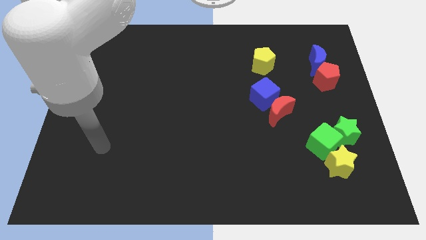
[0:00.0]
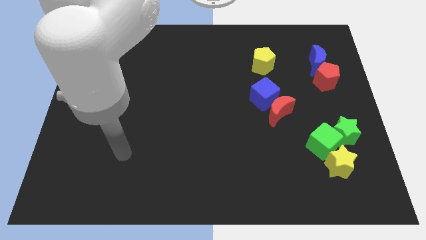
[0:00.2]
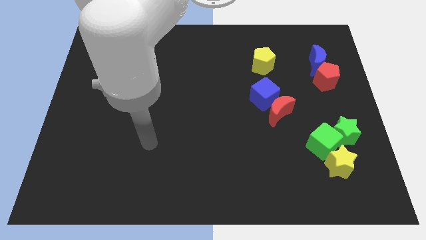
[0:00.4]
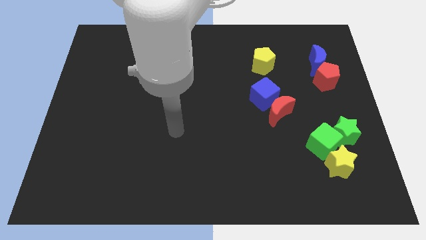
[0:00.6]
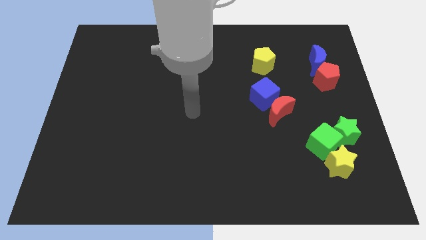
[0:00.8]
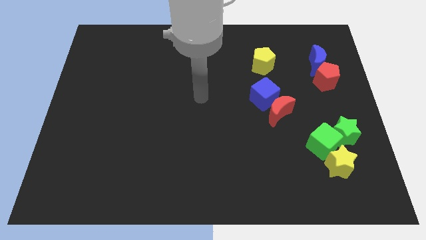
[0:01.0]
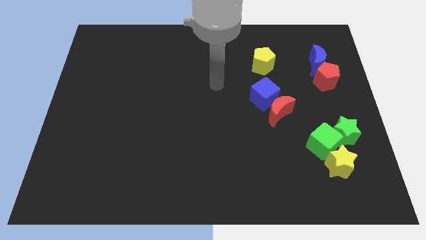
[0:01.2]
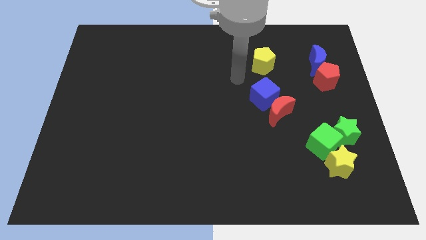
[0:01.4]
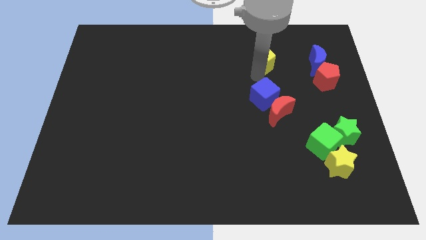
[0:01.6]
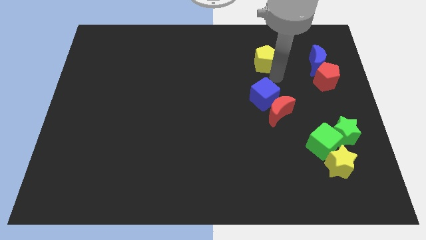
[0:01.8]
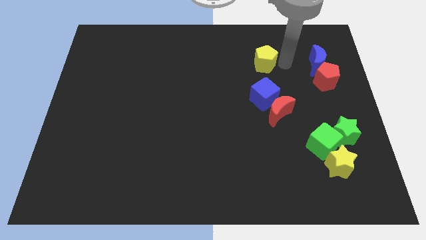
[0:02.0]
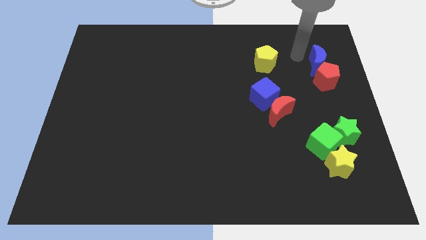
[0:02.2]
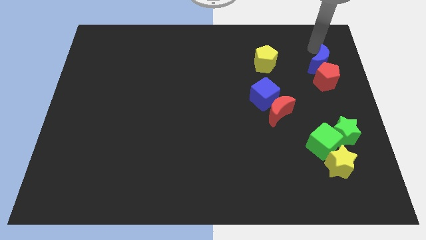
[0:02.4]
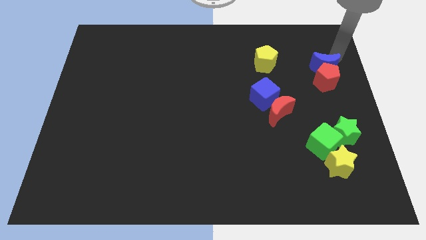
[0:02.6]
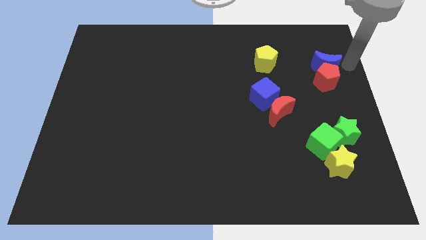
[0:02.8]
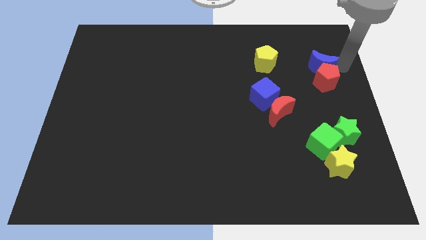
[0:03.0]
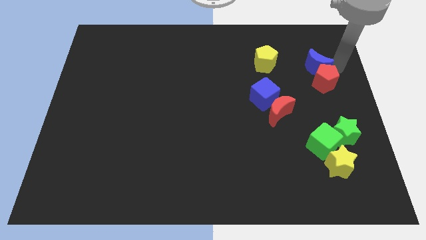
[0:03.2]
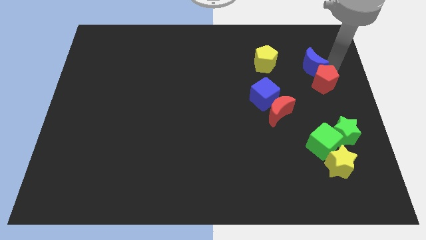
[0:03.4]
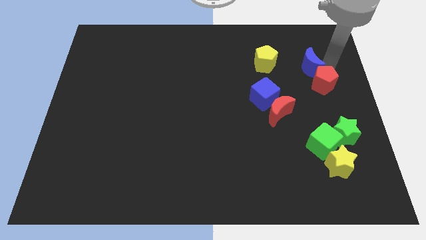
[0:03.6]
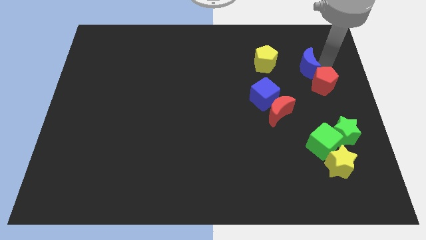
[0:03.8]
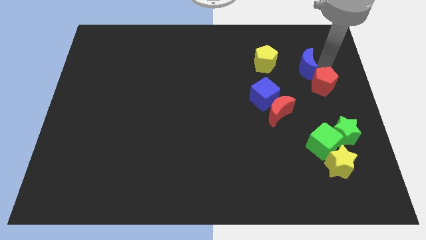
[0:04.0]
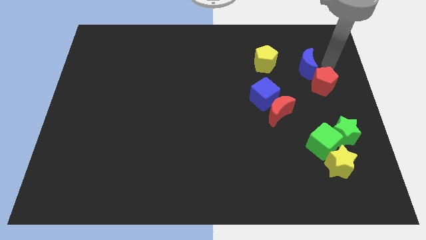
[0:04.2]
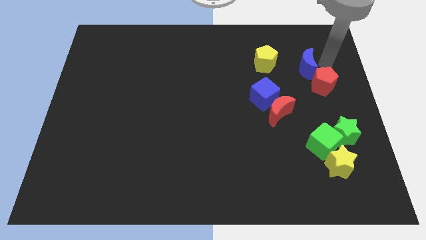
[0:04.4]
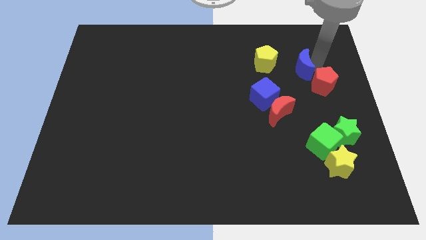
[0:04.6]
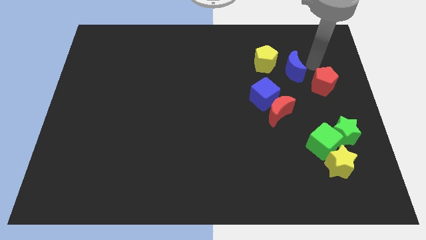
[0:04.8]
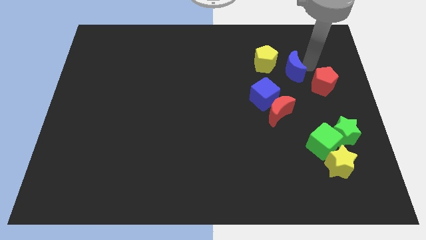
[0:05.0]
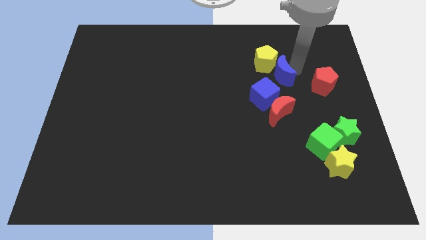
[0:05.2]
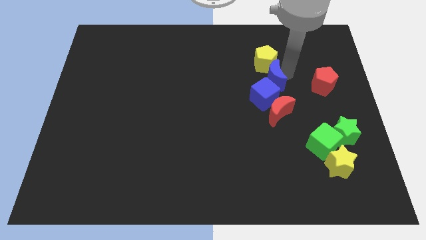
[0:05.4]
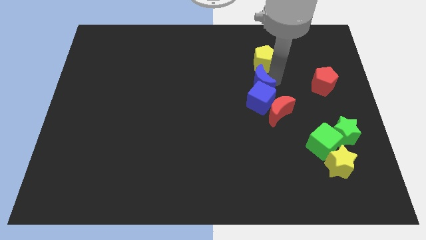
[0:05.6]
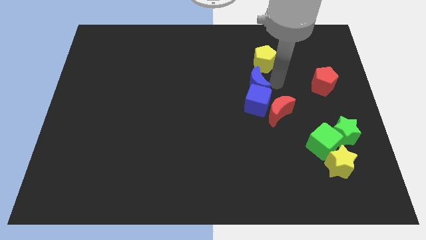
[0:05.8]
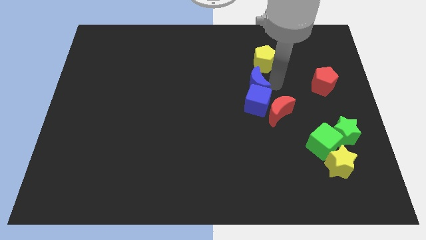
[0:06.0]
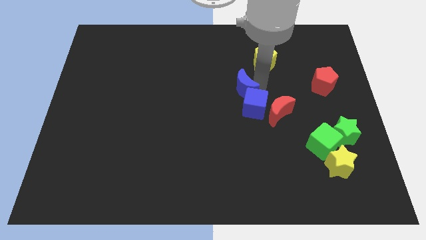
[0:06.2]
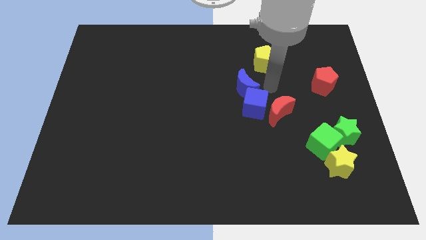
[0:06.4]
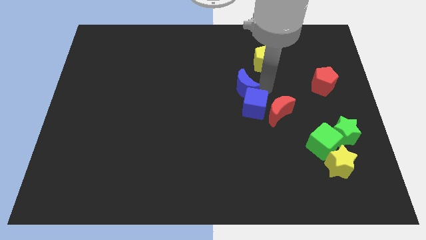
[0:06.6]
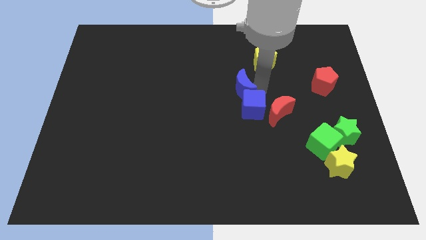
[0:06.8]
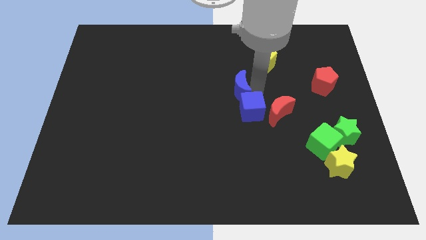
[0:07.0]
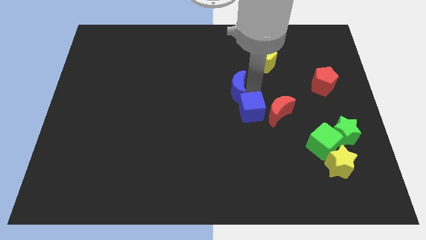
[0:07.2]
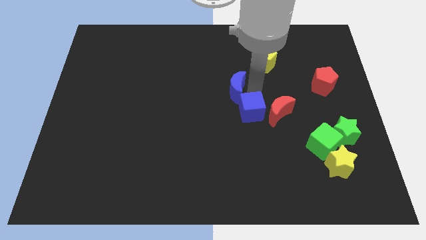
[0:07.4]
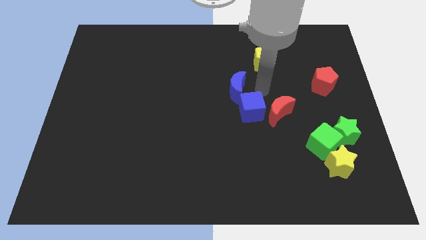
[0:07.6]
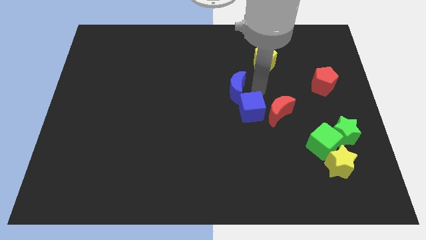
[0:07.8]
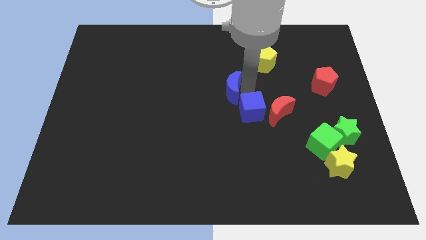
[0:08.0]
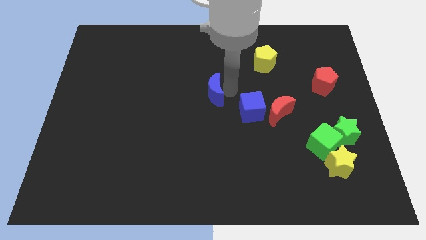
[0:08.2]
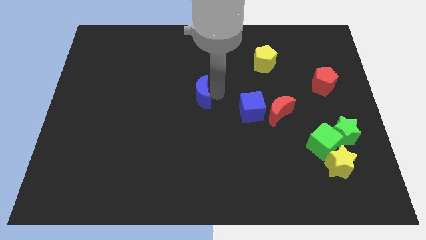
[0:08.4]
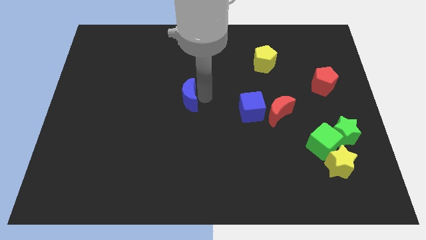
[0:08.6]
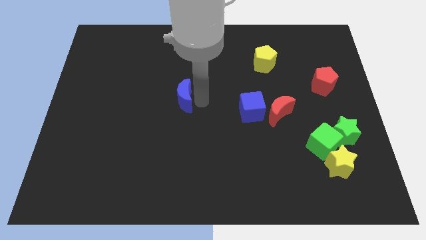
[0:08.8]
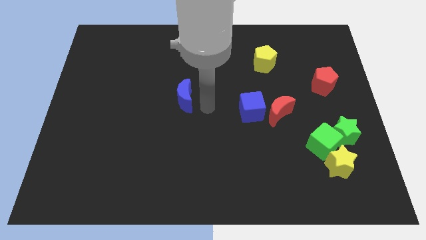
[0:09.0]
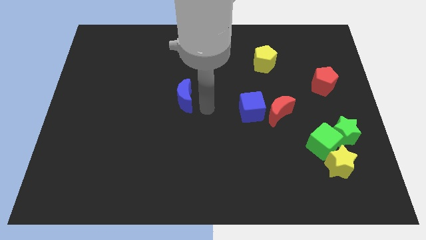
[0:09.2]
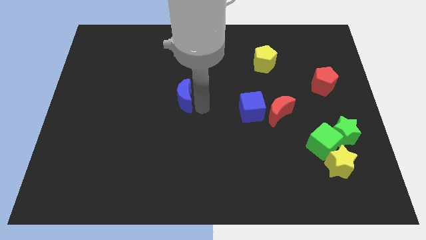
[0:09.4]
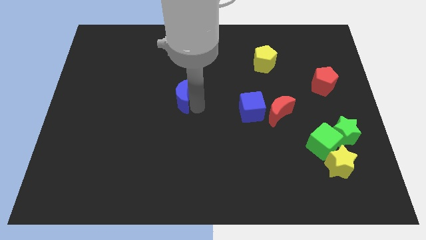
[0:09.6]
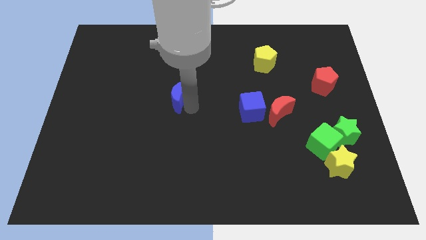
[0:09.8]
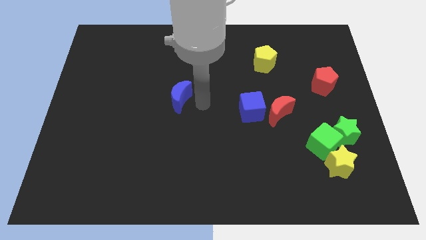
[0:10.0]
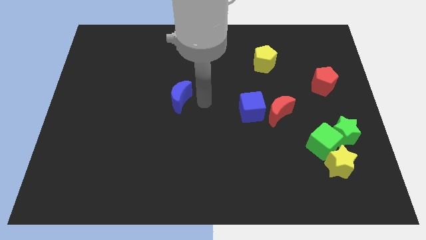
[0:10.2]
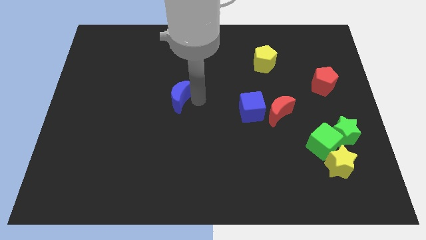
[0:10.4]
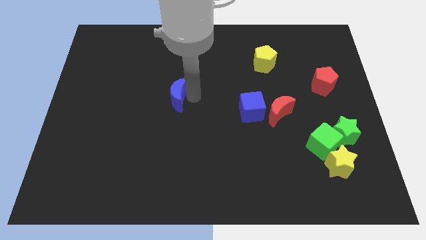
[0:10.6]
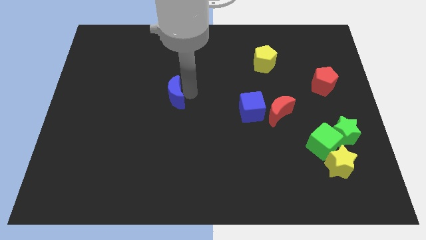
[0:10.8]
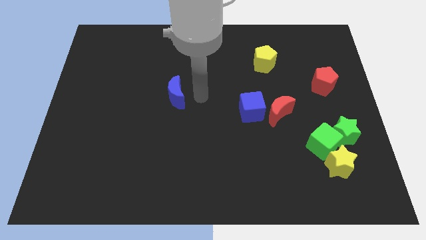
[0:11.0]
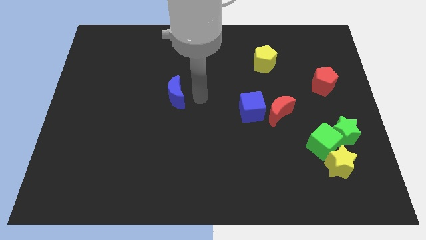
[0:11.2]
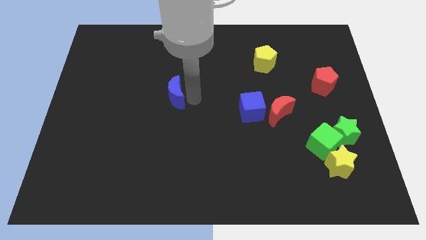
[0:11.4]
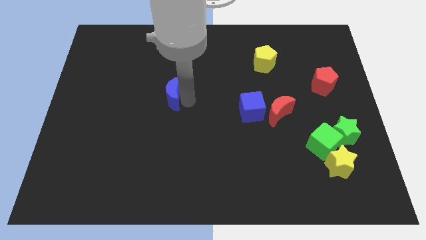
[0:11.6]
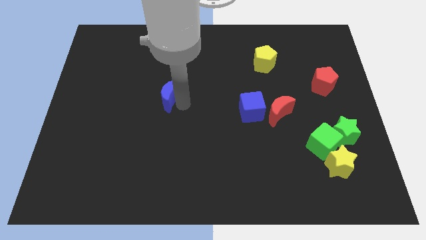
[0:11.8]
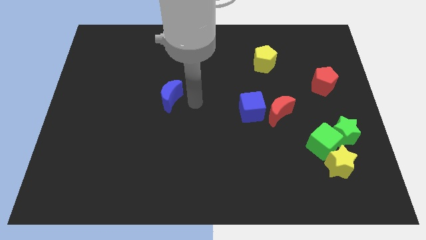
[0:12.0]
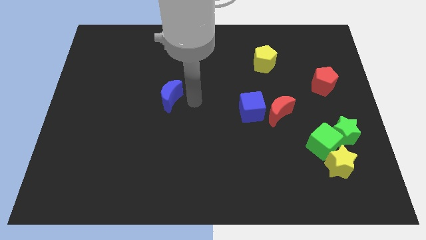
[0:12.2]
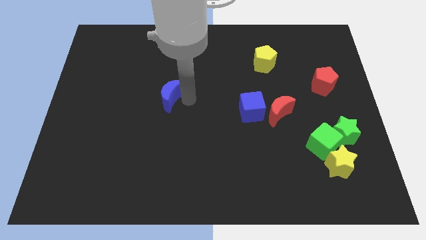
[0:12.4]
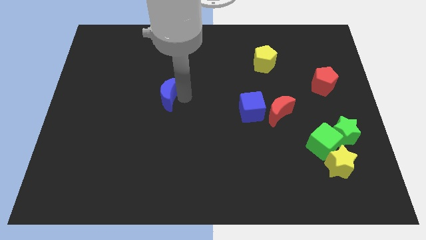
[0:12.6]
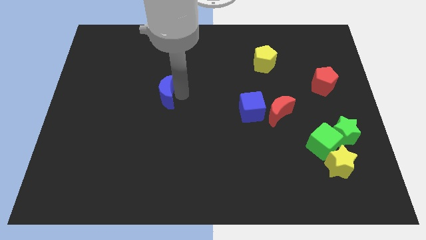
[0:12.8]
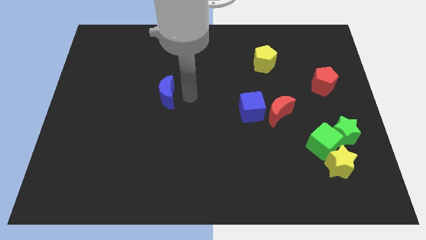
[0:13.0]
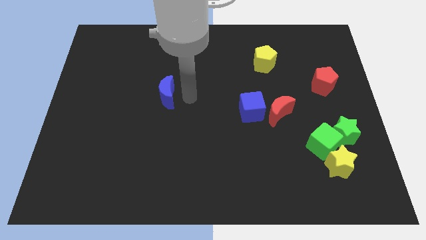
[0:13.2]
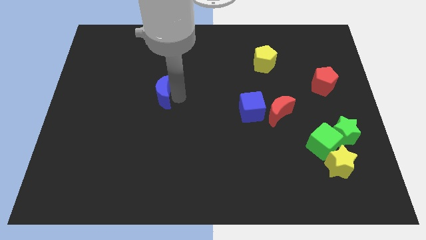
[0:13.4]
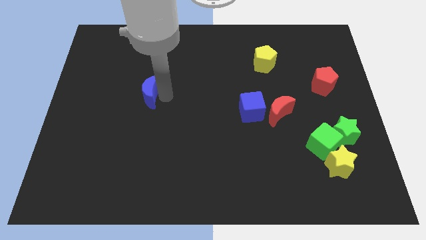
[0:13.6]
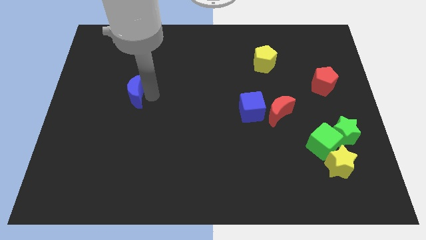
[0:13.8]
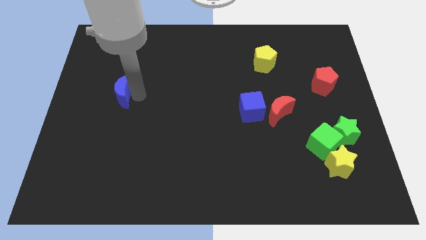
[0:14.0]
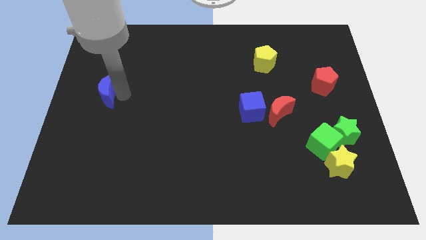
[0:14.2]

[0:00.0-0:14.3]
move the blue moon to the left side
